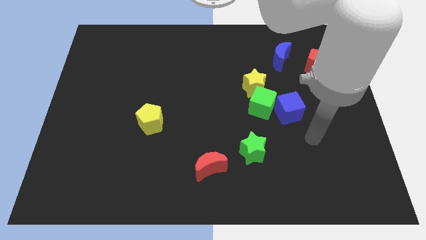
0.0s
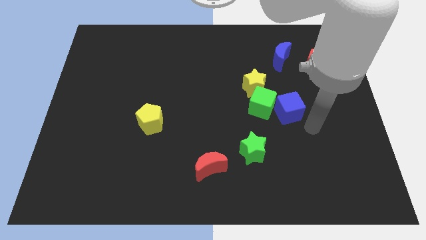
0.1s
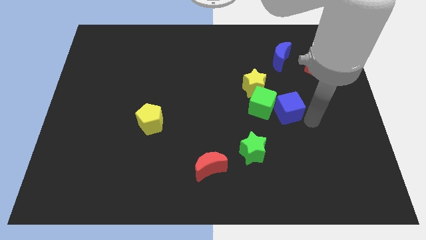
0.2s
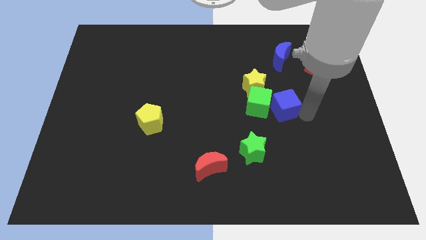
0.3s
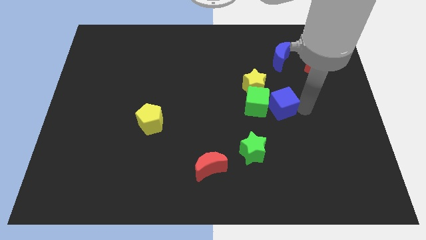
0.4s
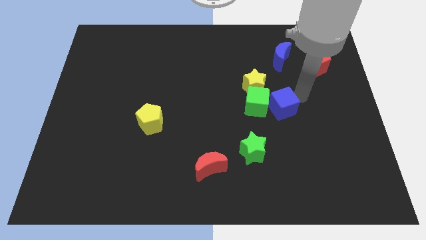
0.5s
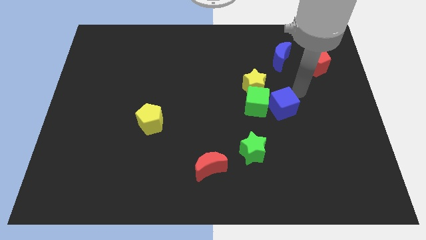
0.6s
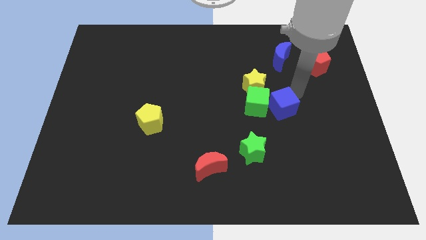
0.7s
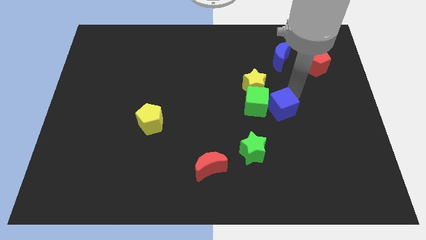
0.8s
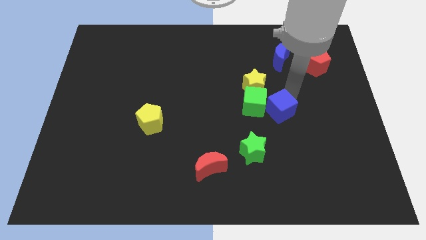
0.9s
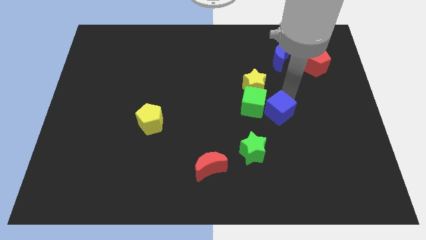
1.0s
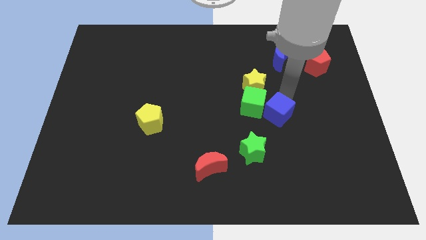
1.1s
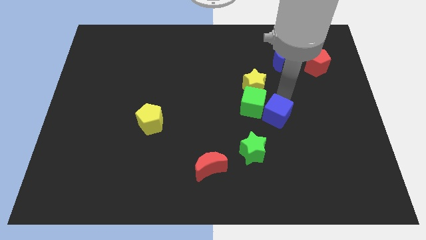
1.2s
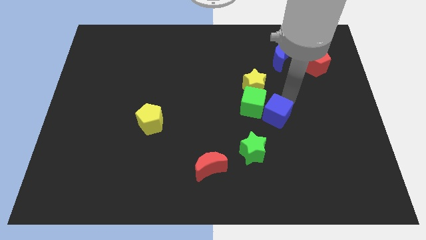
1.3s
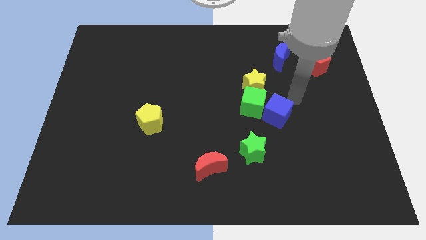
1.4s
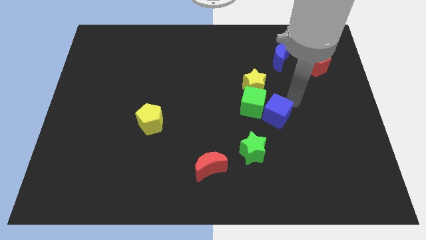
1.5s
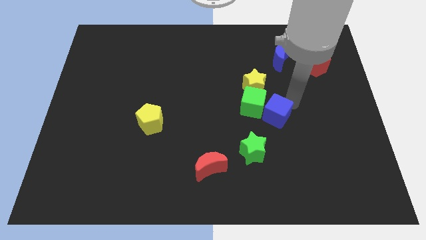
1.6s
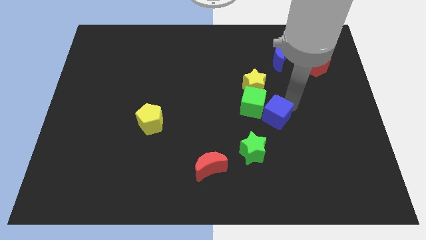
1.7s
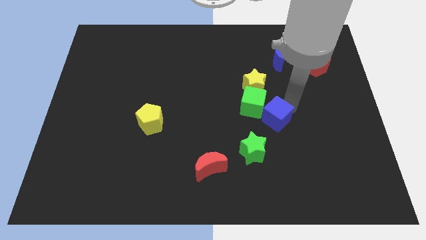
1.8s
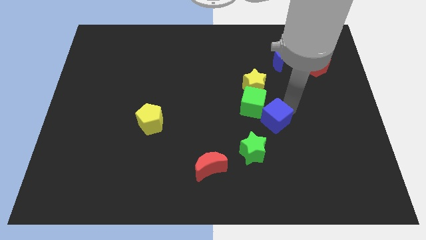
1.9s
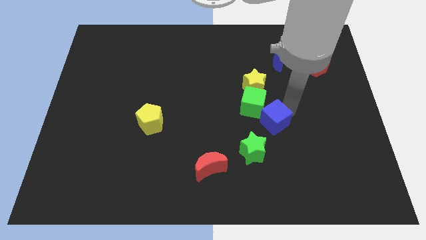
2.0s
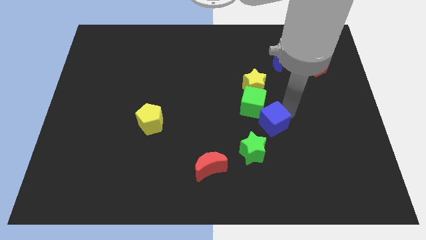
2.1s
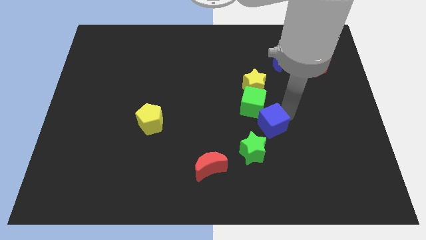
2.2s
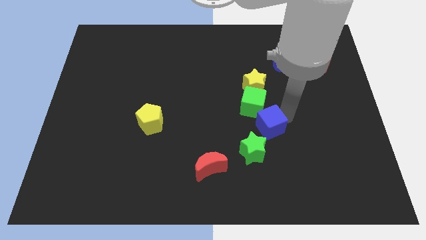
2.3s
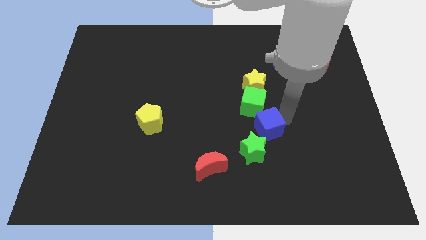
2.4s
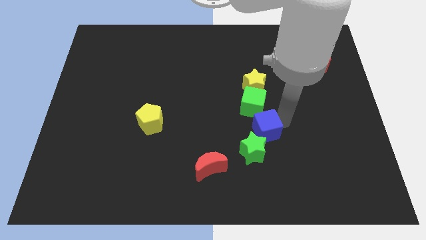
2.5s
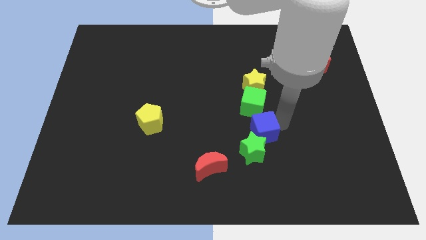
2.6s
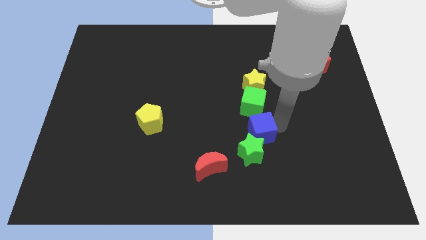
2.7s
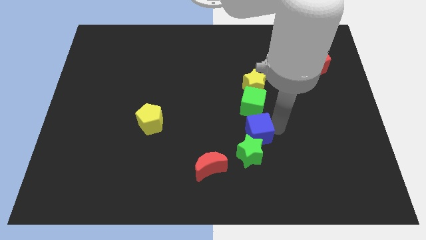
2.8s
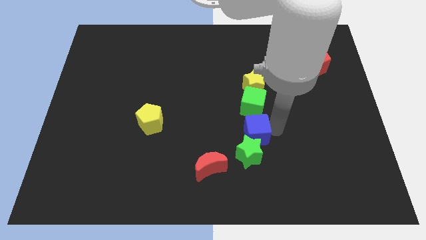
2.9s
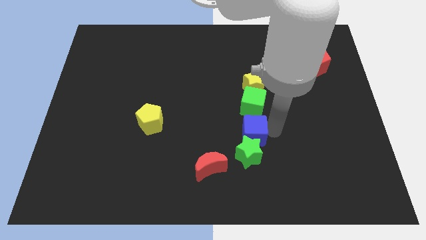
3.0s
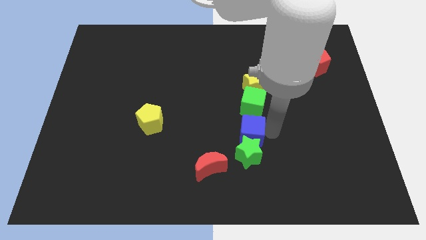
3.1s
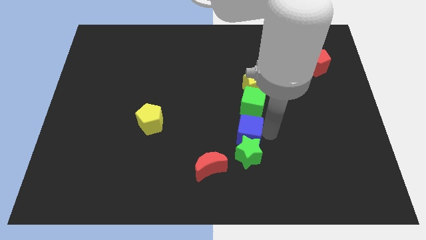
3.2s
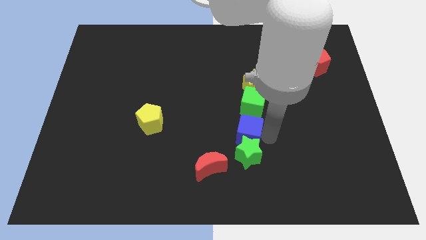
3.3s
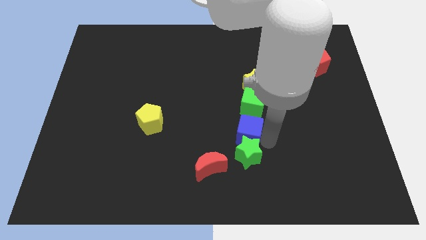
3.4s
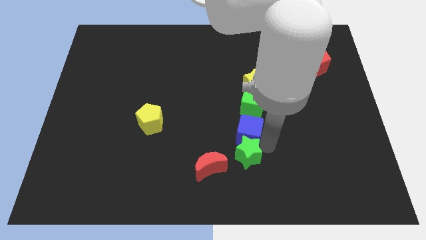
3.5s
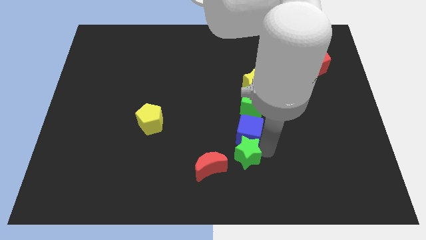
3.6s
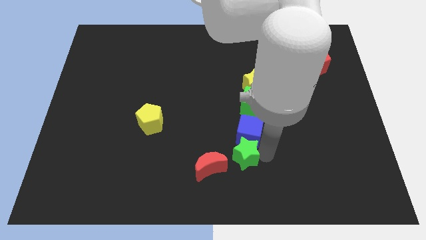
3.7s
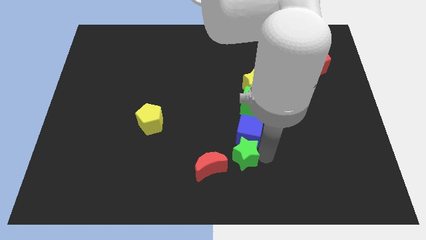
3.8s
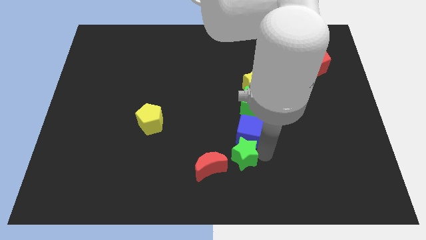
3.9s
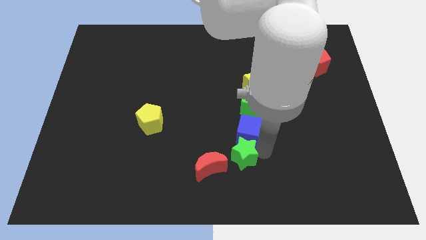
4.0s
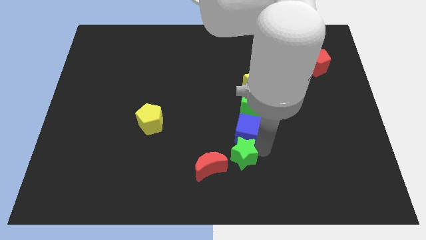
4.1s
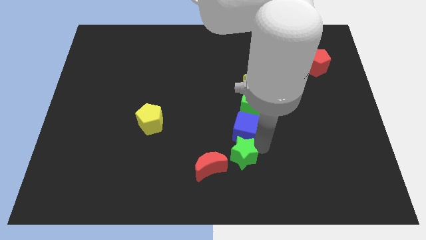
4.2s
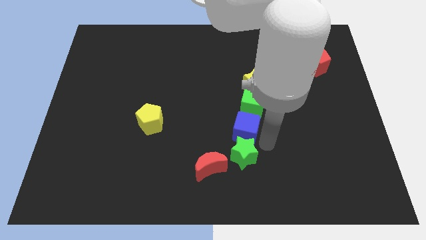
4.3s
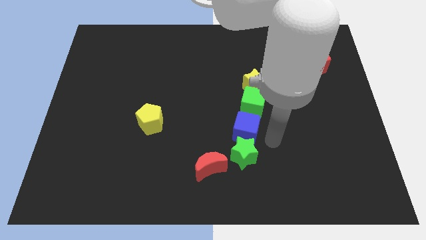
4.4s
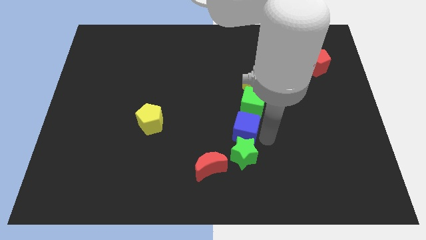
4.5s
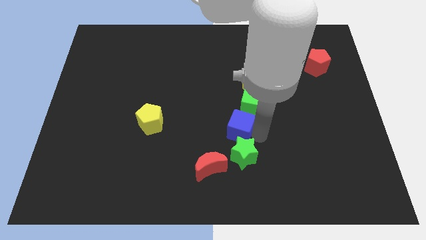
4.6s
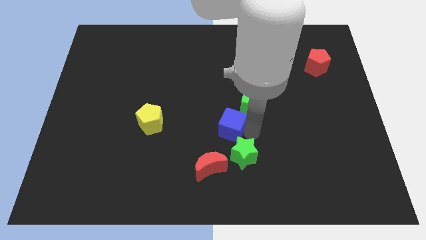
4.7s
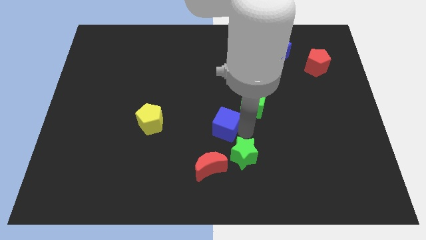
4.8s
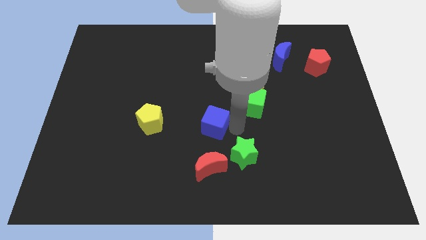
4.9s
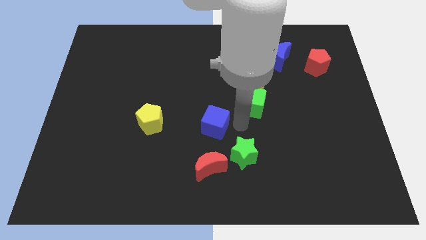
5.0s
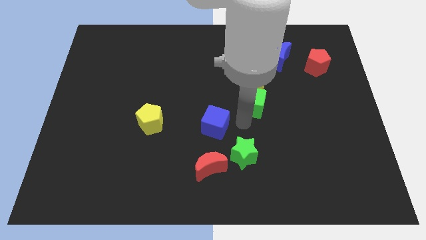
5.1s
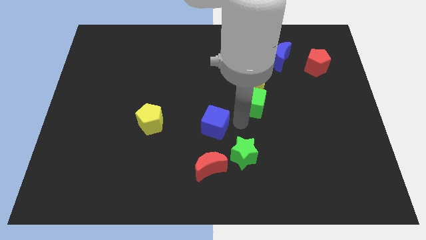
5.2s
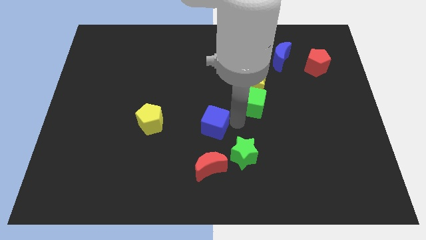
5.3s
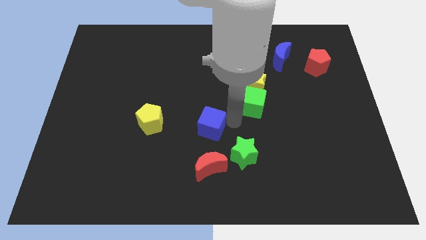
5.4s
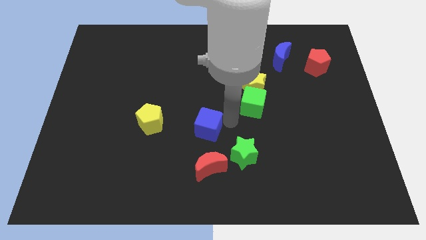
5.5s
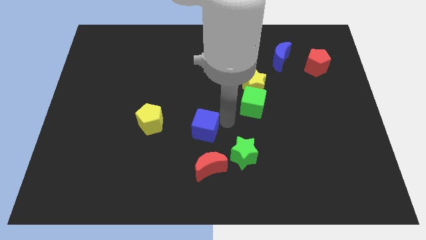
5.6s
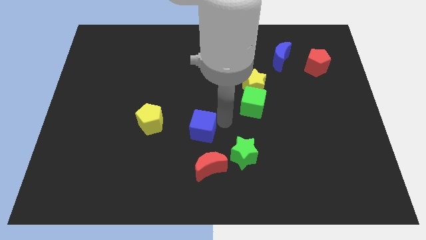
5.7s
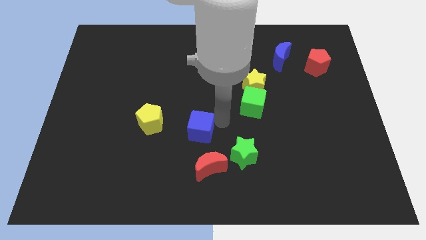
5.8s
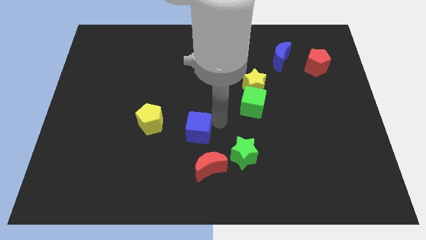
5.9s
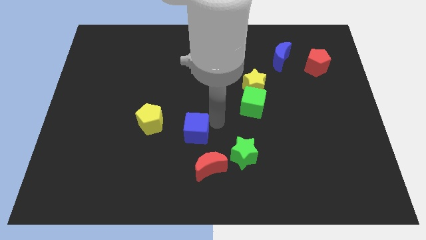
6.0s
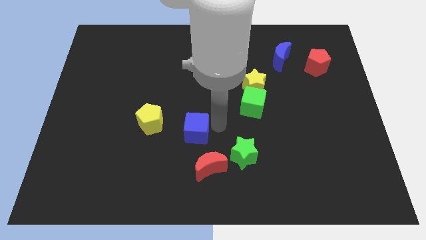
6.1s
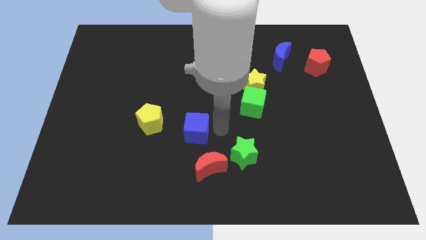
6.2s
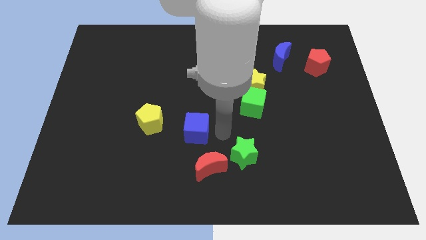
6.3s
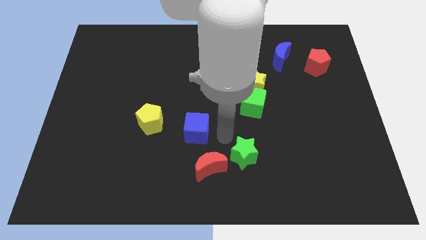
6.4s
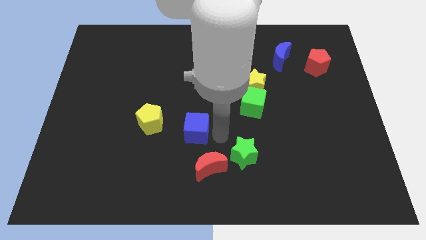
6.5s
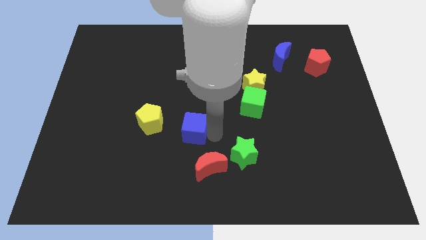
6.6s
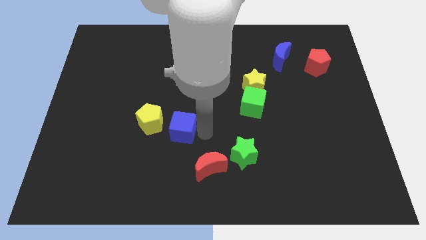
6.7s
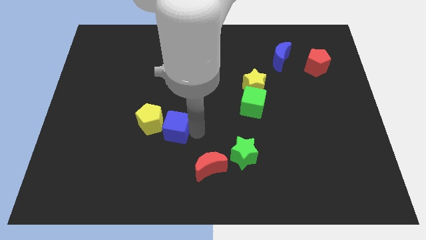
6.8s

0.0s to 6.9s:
push the blue cube towards the yellow pentagon
